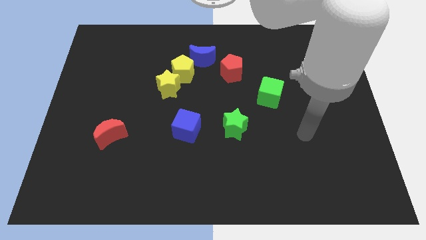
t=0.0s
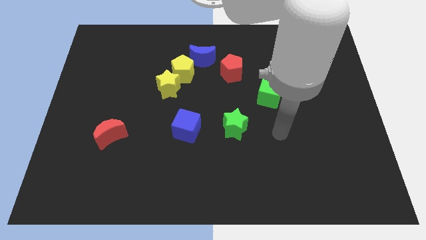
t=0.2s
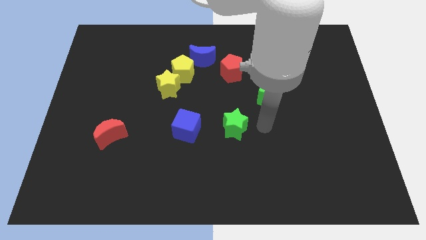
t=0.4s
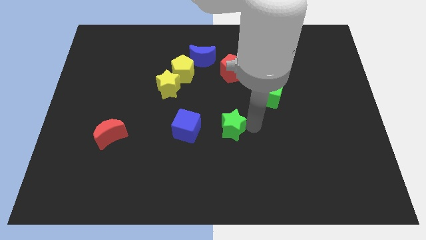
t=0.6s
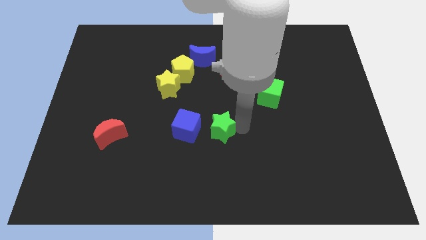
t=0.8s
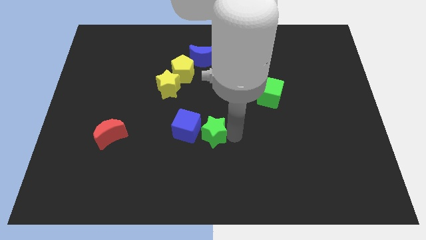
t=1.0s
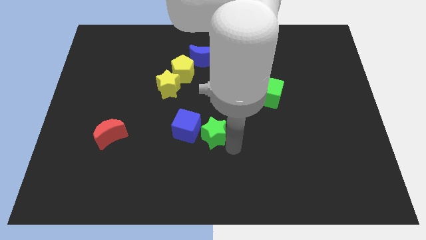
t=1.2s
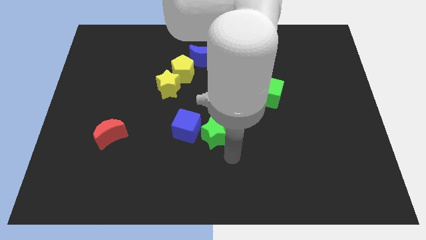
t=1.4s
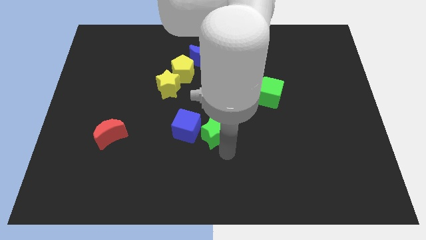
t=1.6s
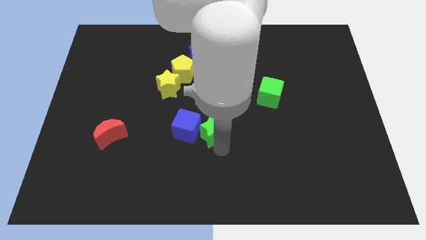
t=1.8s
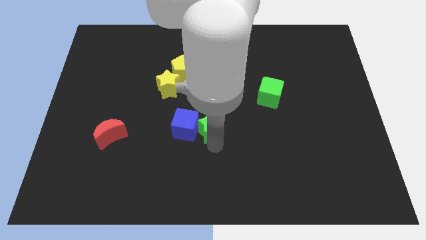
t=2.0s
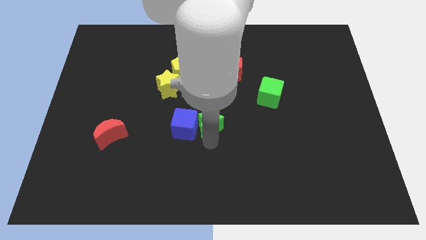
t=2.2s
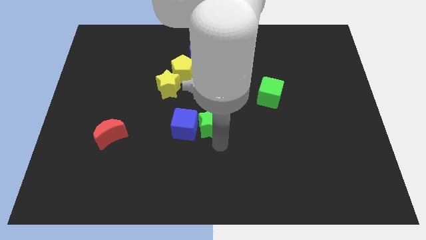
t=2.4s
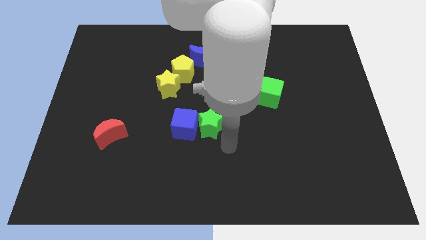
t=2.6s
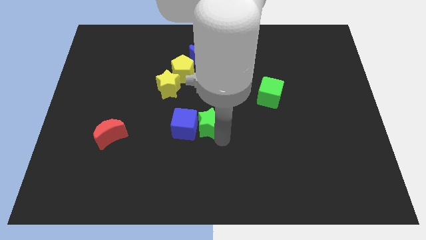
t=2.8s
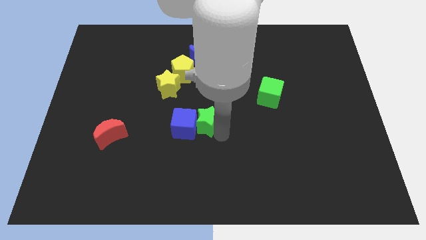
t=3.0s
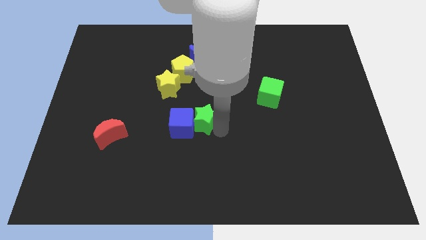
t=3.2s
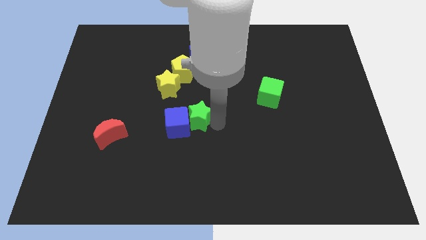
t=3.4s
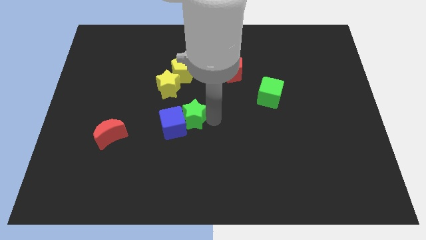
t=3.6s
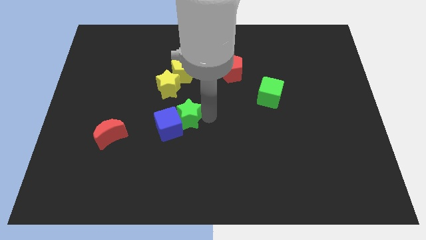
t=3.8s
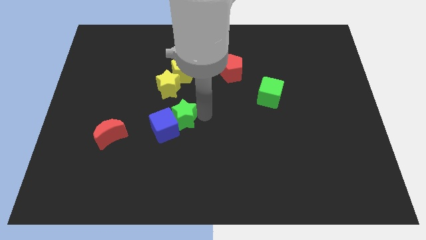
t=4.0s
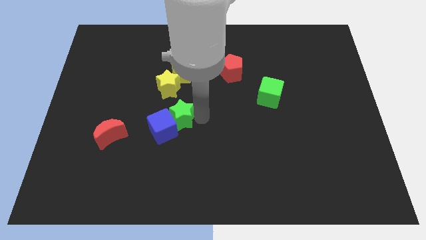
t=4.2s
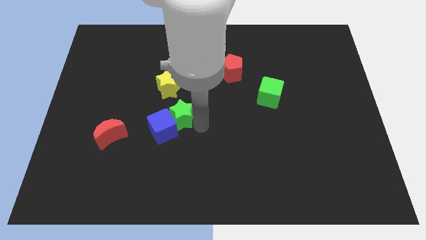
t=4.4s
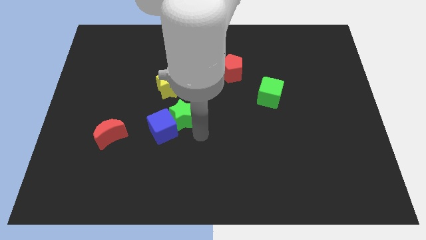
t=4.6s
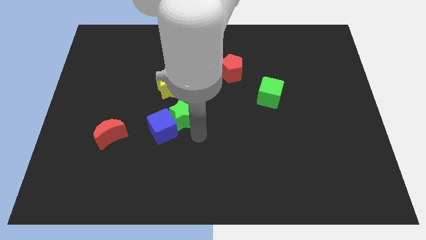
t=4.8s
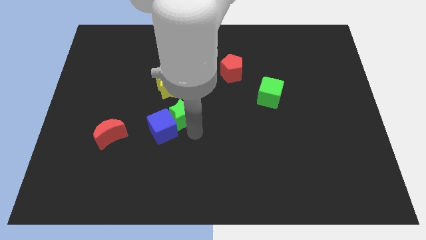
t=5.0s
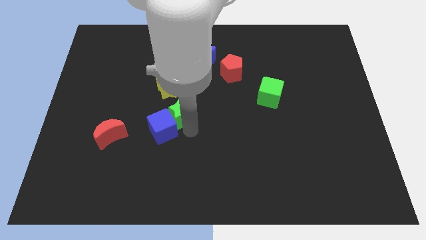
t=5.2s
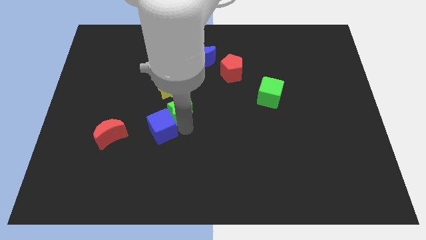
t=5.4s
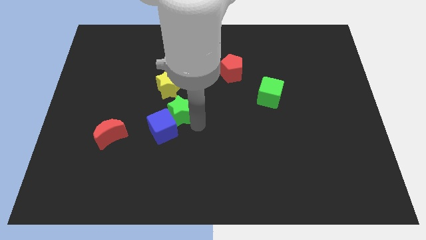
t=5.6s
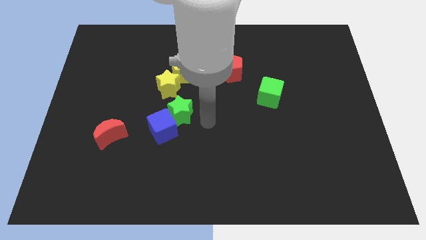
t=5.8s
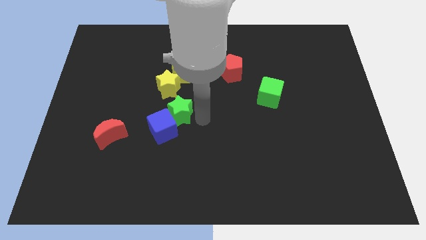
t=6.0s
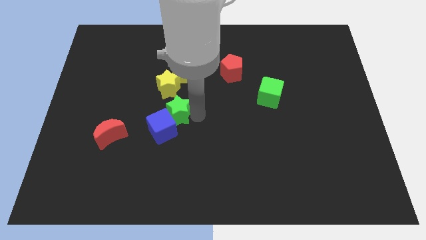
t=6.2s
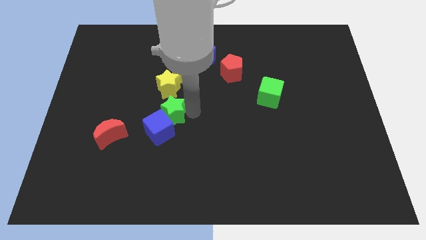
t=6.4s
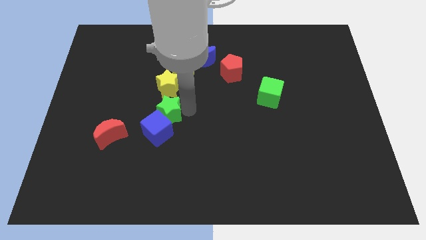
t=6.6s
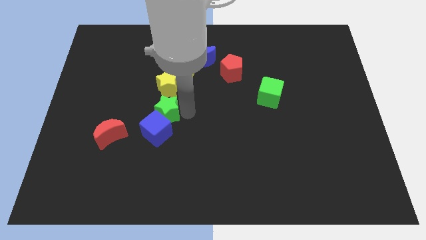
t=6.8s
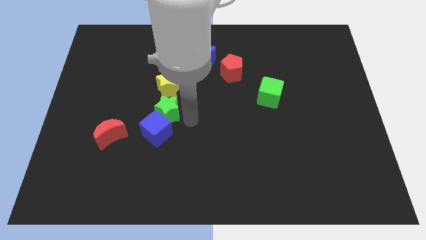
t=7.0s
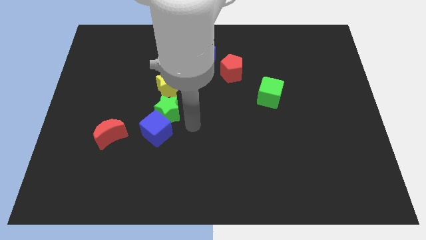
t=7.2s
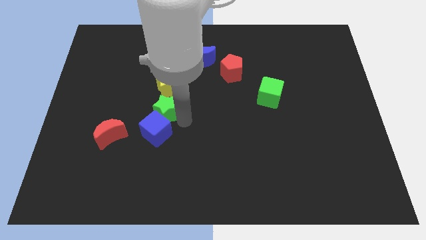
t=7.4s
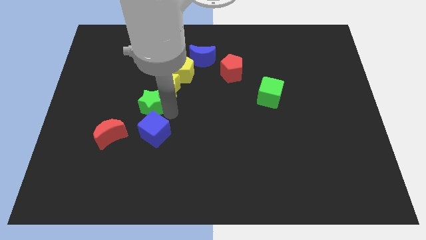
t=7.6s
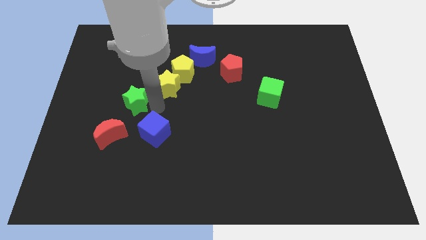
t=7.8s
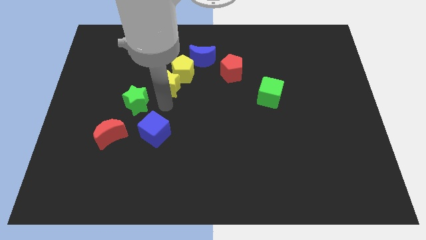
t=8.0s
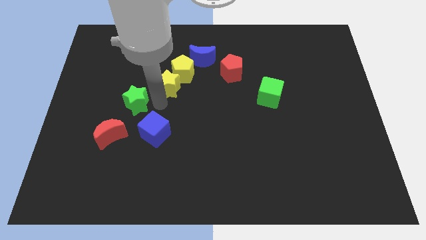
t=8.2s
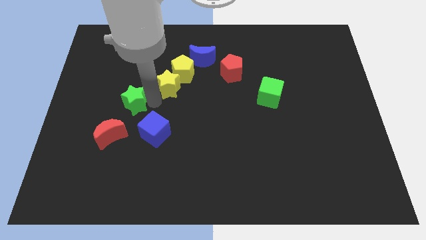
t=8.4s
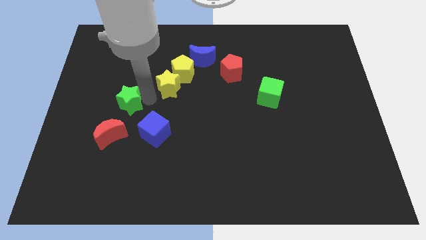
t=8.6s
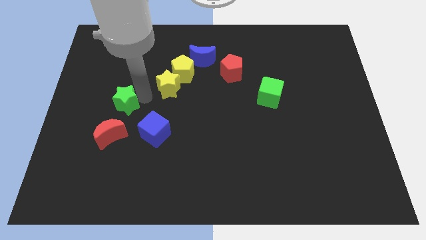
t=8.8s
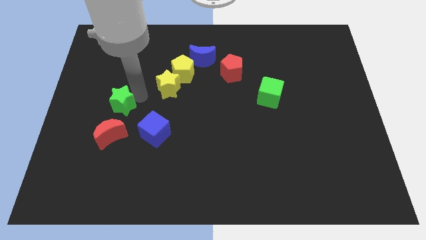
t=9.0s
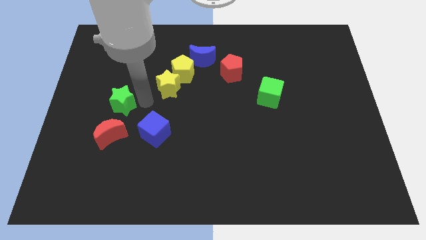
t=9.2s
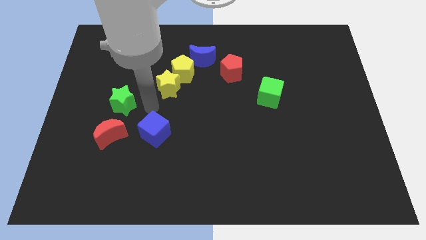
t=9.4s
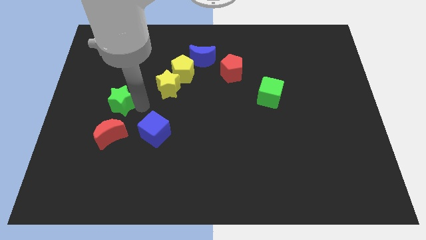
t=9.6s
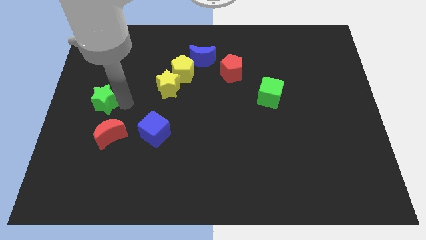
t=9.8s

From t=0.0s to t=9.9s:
move the green star to the center left

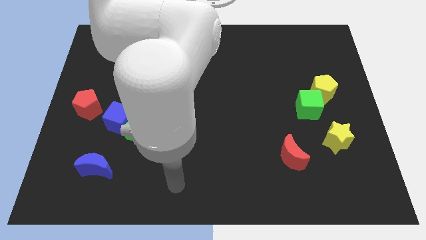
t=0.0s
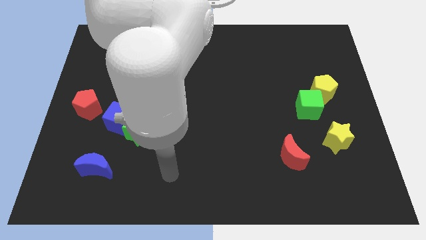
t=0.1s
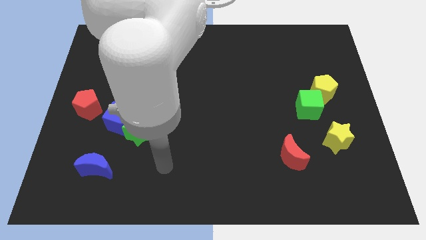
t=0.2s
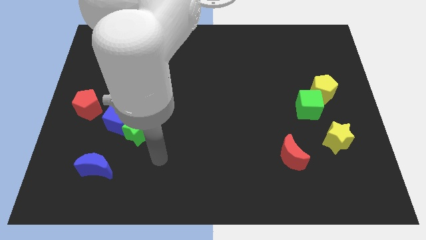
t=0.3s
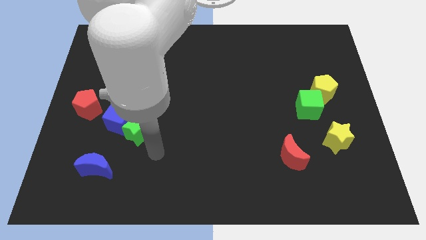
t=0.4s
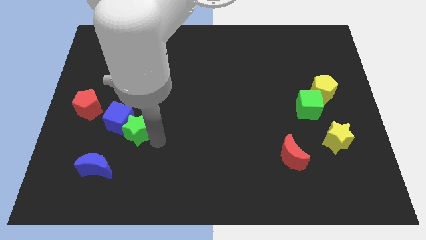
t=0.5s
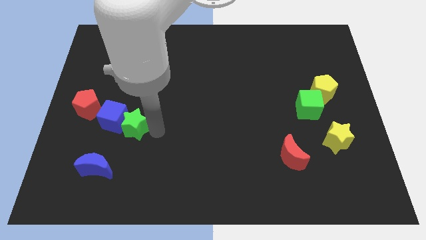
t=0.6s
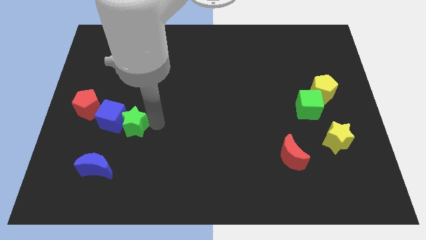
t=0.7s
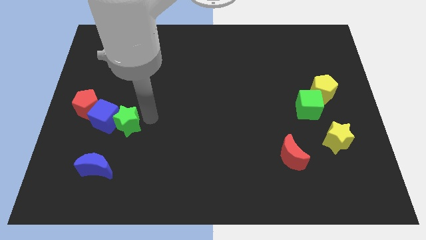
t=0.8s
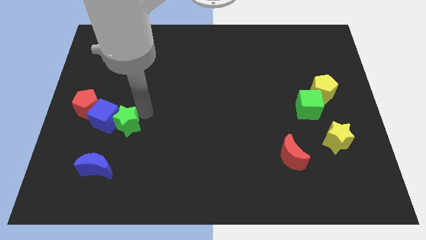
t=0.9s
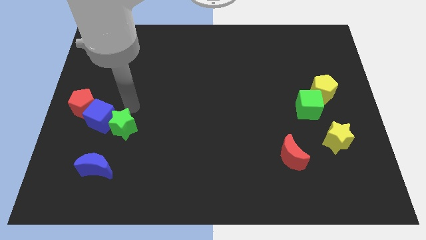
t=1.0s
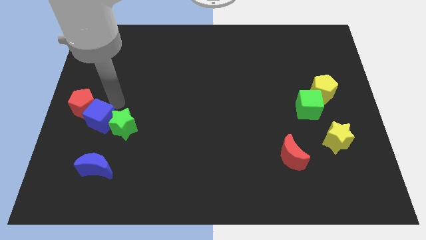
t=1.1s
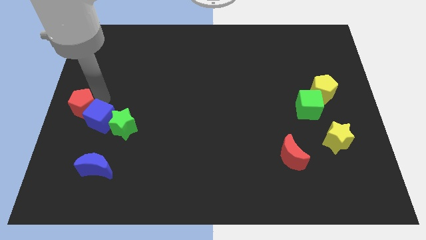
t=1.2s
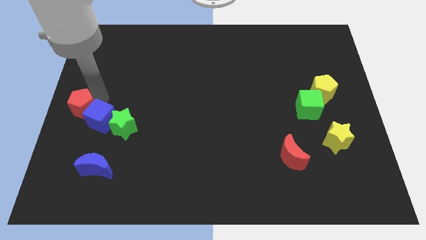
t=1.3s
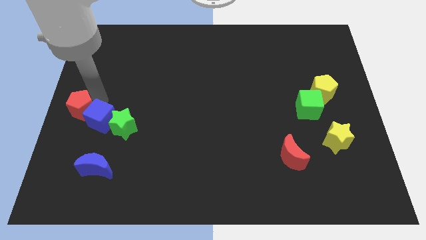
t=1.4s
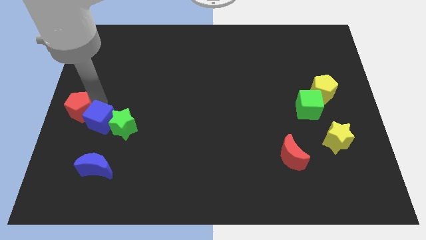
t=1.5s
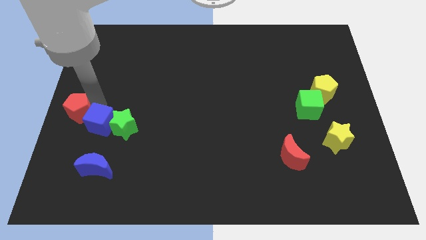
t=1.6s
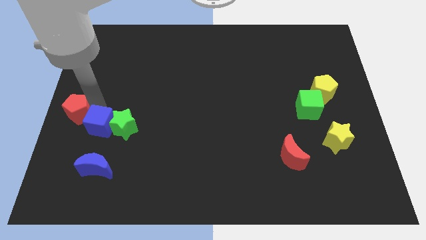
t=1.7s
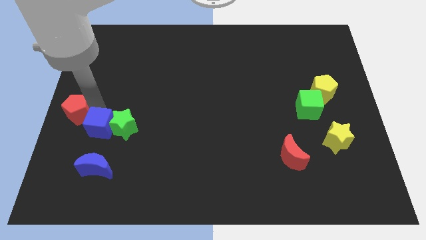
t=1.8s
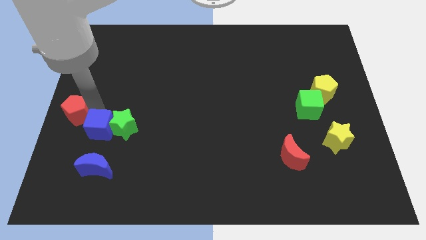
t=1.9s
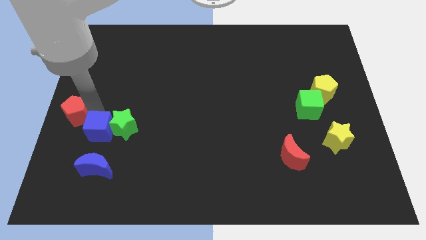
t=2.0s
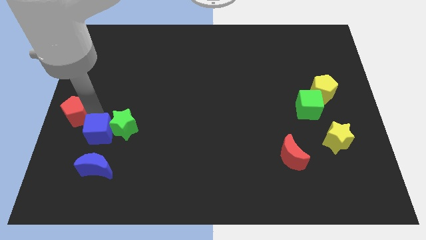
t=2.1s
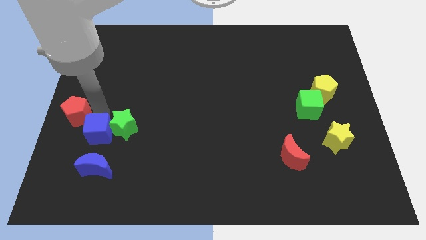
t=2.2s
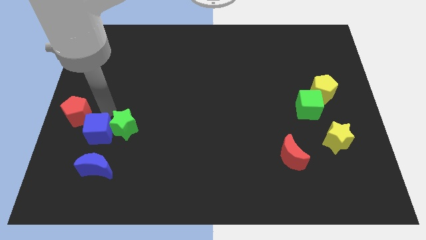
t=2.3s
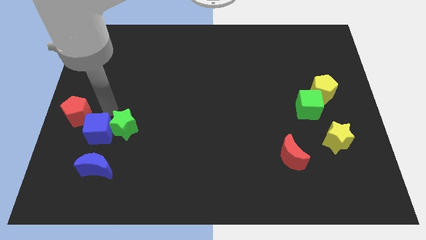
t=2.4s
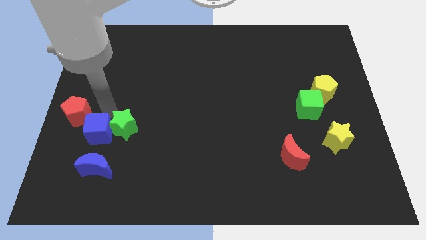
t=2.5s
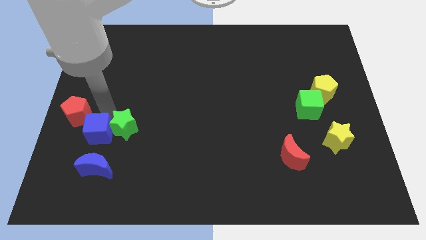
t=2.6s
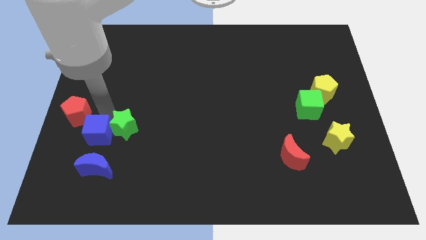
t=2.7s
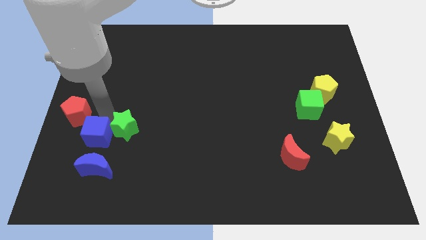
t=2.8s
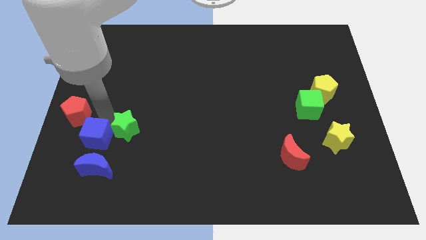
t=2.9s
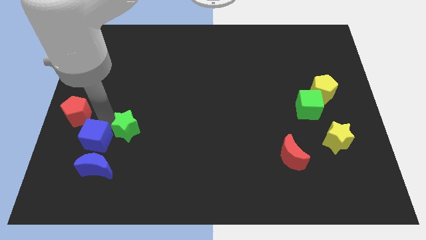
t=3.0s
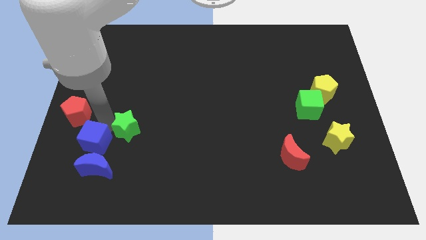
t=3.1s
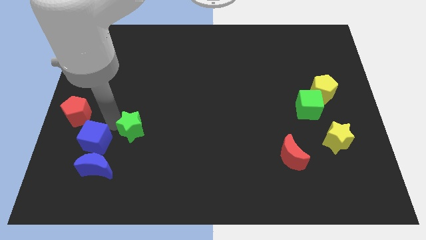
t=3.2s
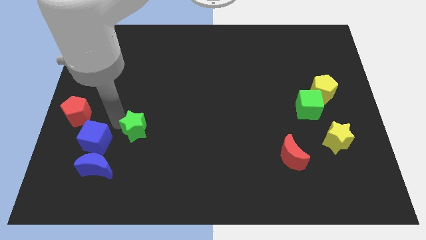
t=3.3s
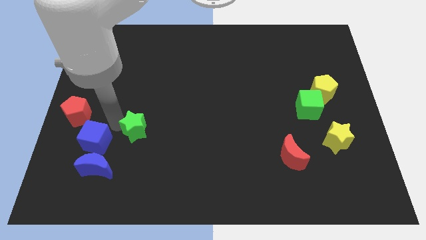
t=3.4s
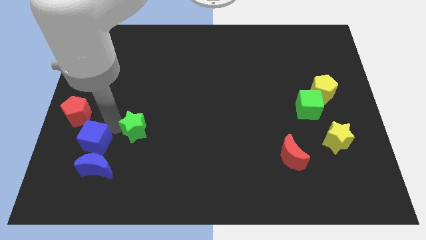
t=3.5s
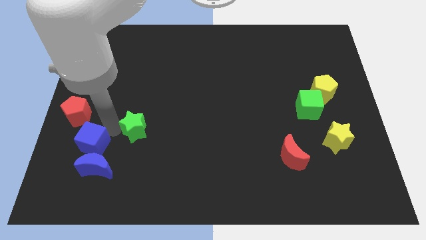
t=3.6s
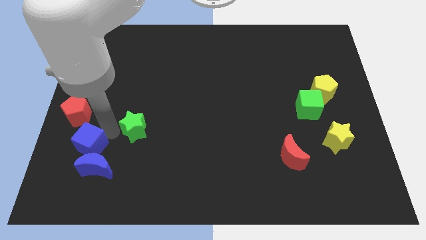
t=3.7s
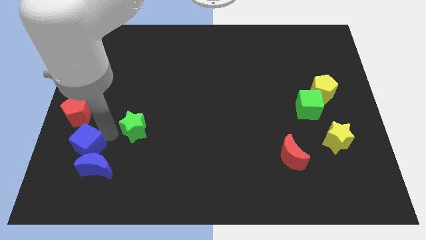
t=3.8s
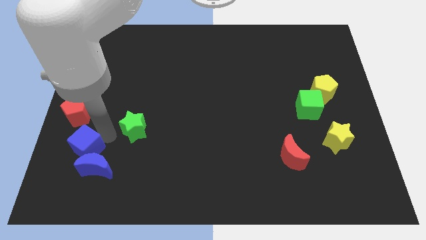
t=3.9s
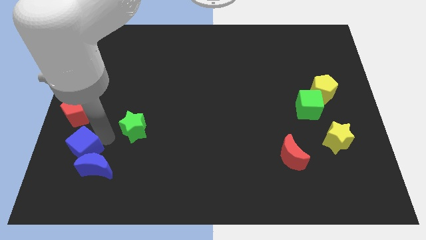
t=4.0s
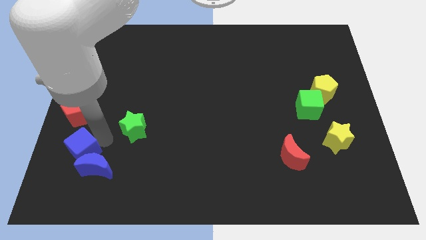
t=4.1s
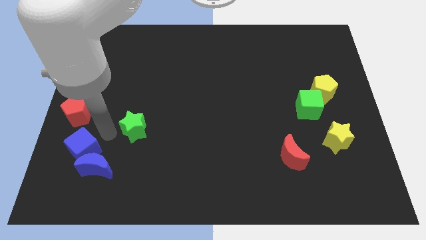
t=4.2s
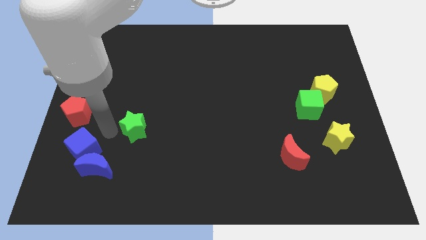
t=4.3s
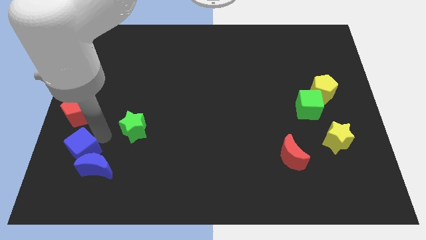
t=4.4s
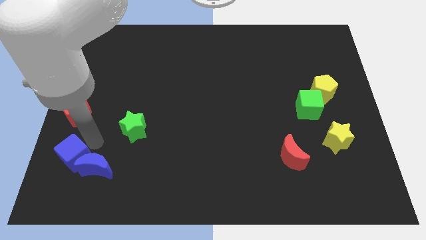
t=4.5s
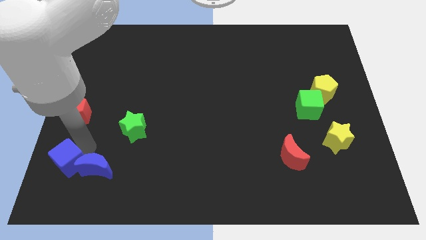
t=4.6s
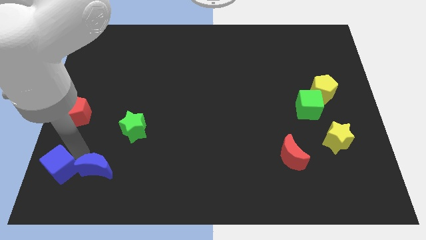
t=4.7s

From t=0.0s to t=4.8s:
slide the blue cube to the lower left corner
